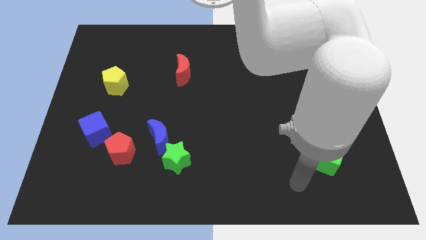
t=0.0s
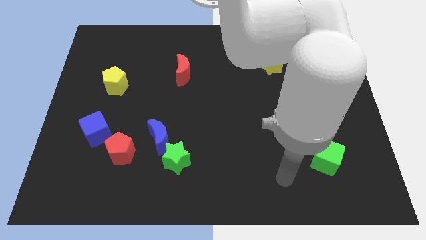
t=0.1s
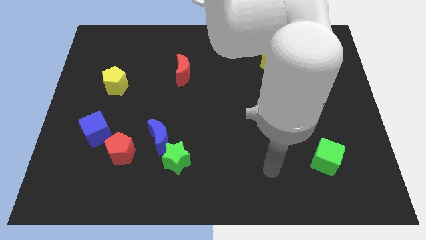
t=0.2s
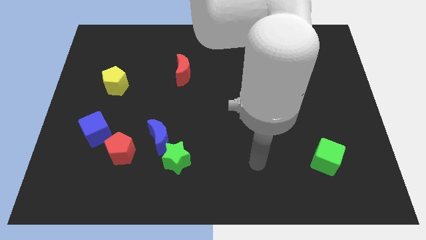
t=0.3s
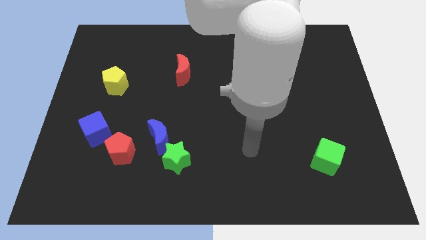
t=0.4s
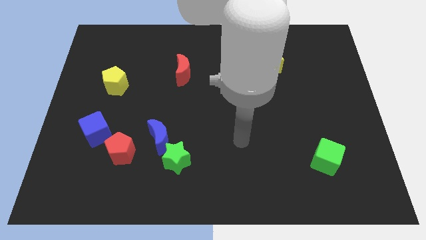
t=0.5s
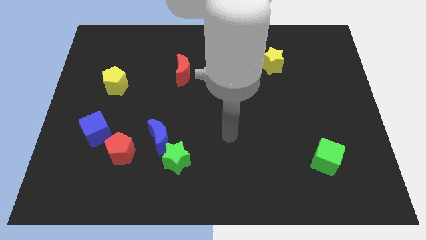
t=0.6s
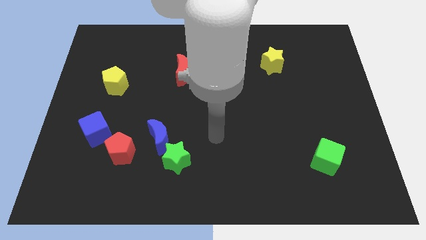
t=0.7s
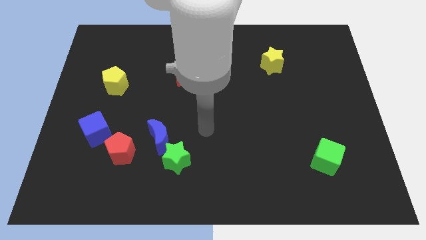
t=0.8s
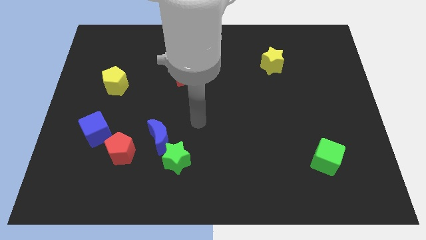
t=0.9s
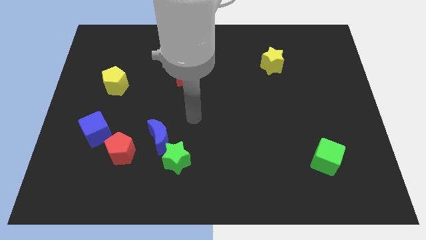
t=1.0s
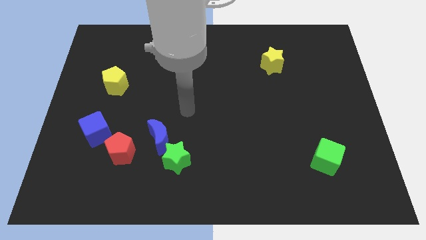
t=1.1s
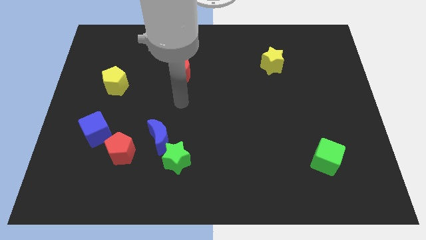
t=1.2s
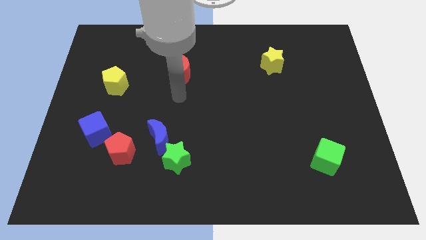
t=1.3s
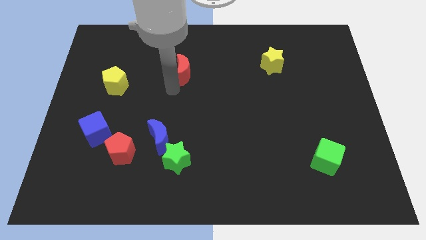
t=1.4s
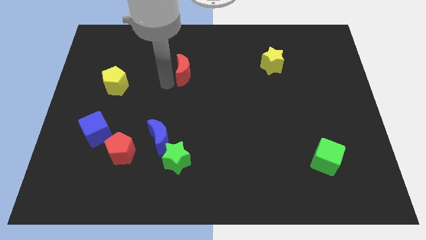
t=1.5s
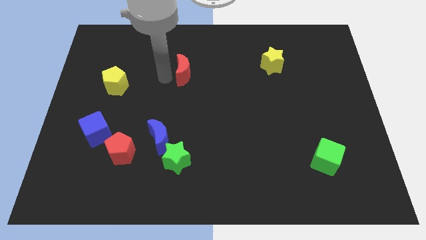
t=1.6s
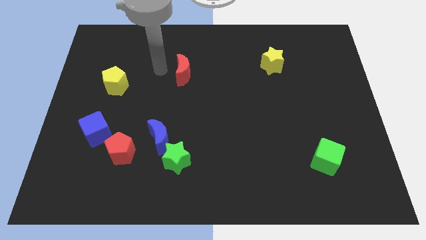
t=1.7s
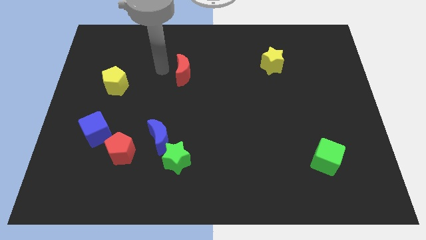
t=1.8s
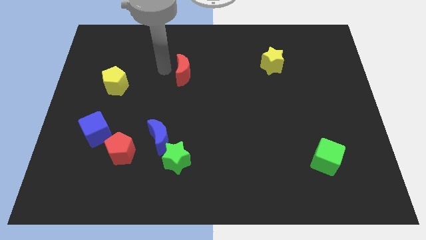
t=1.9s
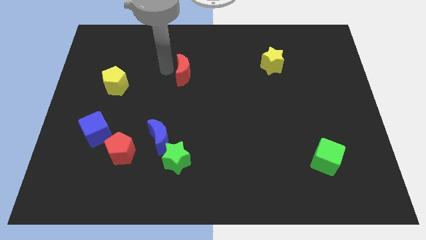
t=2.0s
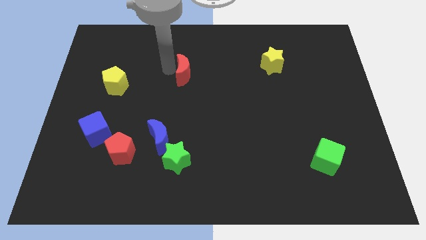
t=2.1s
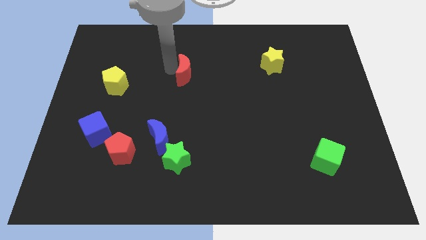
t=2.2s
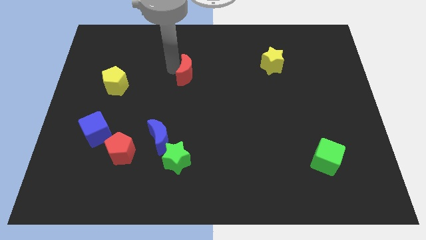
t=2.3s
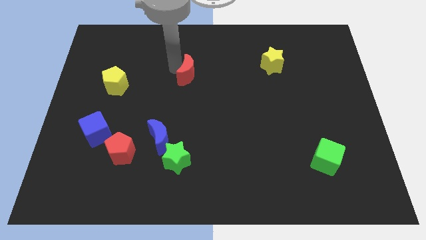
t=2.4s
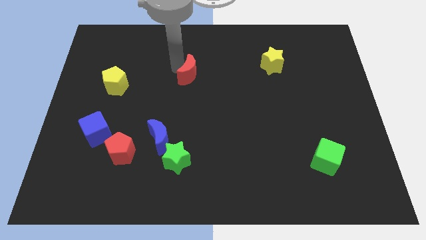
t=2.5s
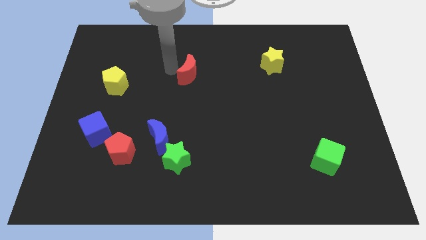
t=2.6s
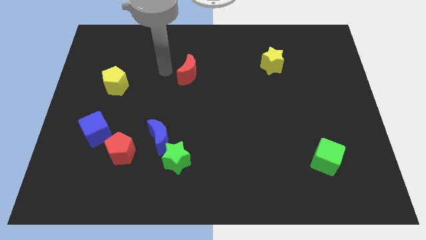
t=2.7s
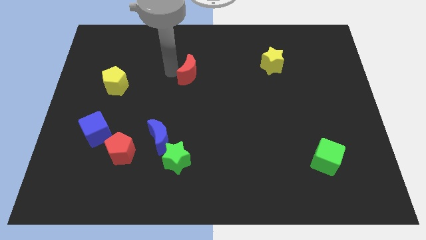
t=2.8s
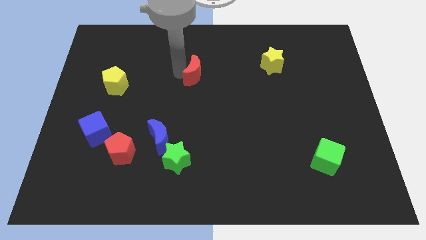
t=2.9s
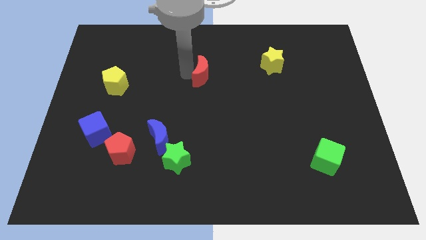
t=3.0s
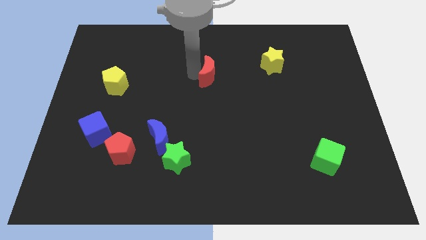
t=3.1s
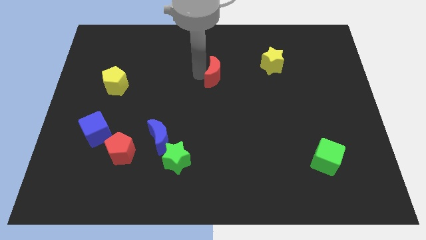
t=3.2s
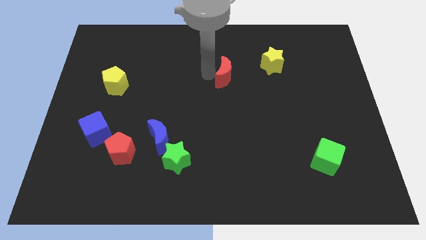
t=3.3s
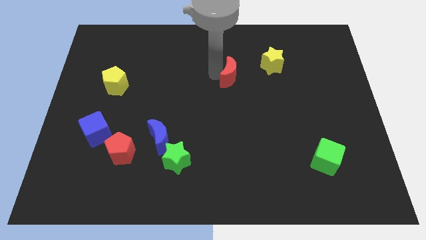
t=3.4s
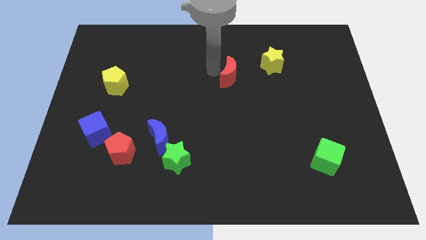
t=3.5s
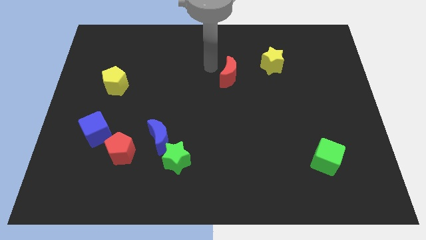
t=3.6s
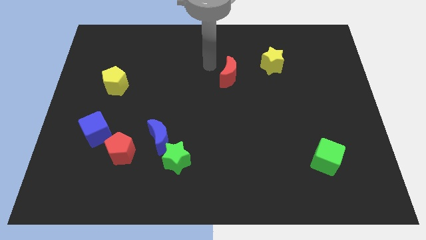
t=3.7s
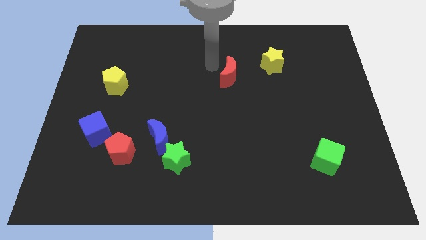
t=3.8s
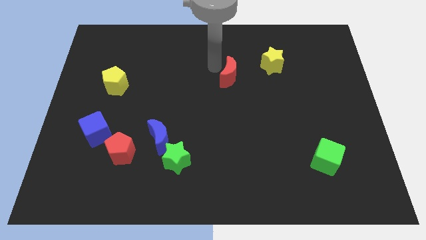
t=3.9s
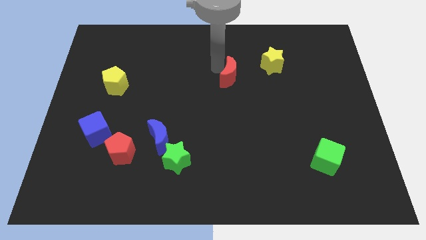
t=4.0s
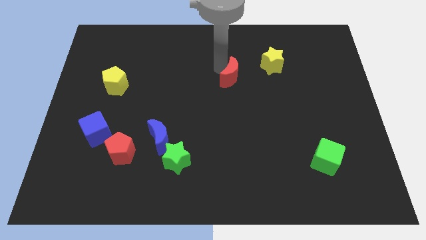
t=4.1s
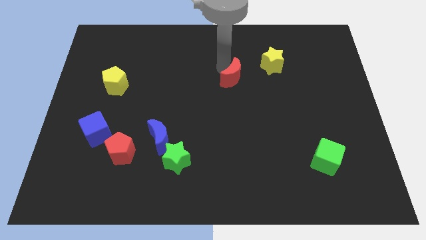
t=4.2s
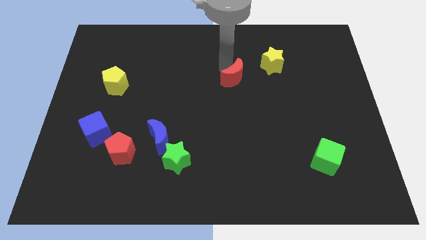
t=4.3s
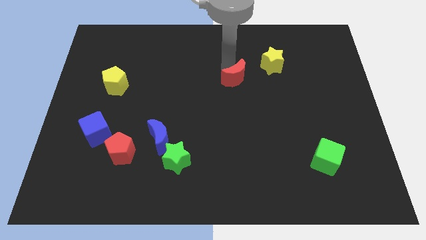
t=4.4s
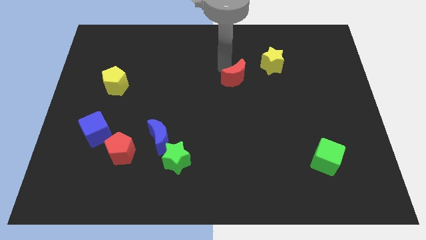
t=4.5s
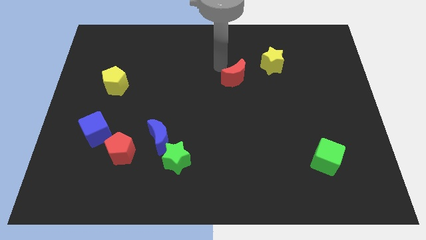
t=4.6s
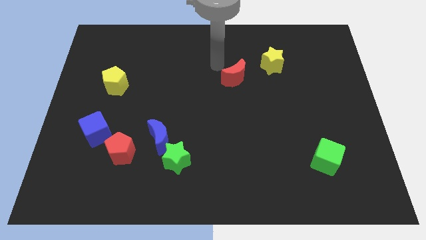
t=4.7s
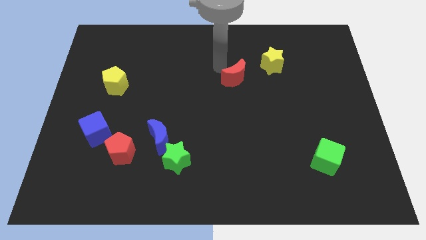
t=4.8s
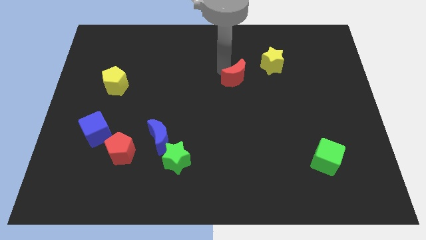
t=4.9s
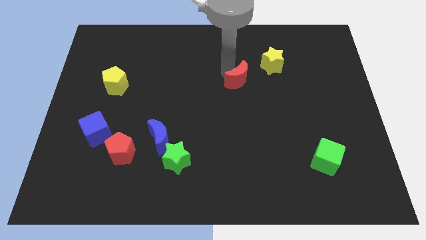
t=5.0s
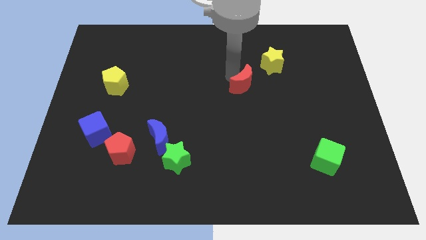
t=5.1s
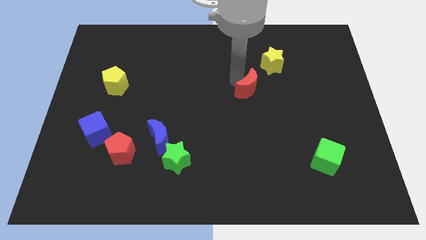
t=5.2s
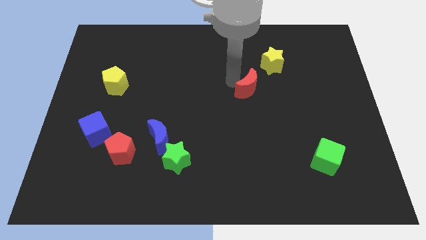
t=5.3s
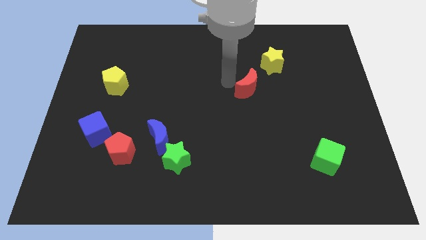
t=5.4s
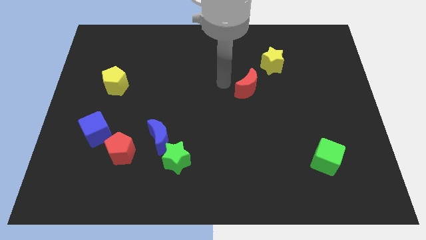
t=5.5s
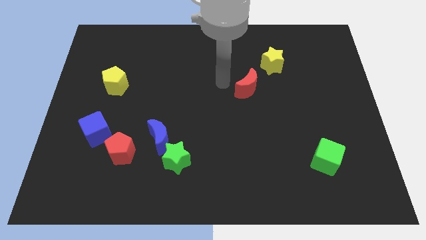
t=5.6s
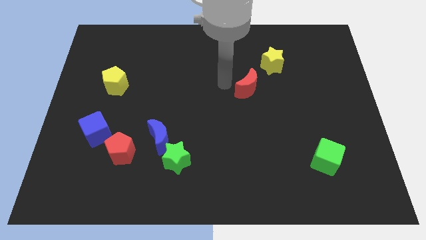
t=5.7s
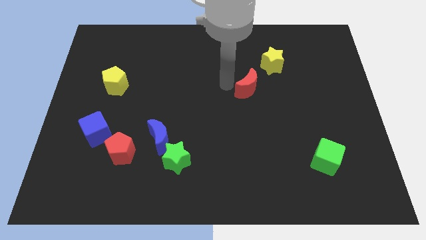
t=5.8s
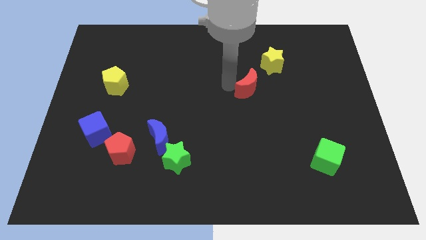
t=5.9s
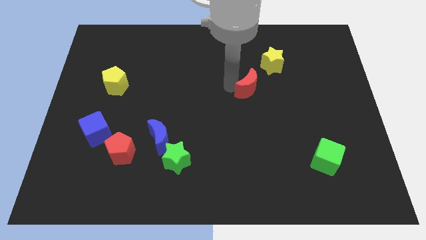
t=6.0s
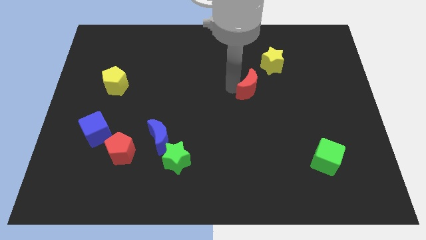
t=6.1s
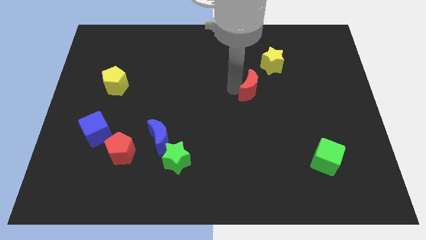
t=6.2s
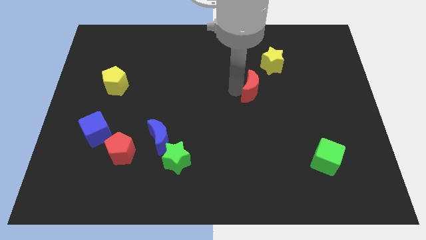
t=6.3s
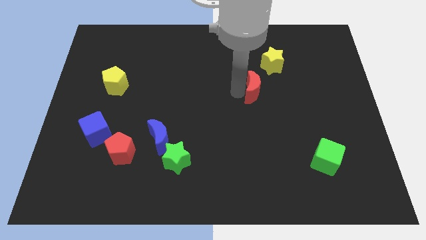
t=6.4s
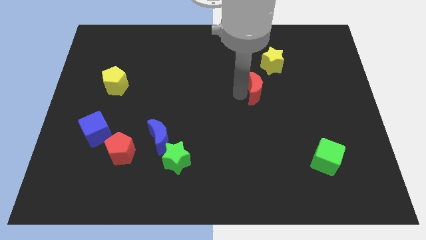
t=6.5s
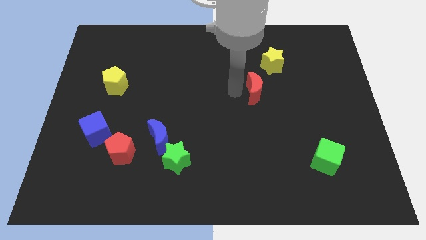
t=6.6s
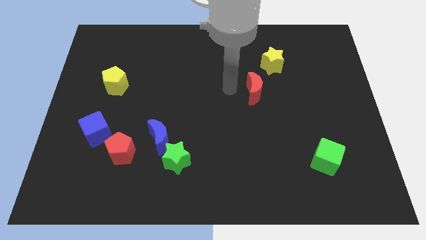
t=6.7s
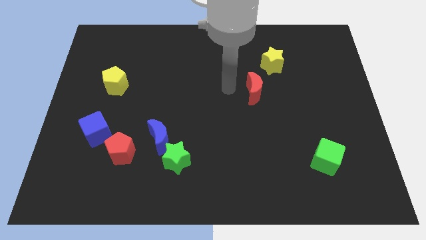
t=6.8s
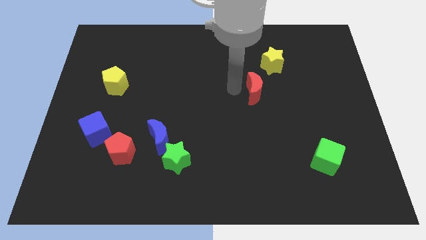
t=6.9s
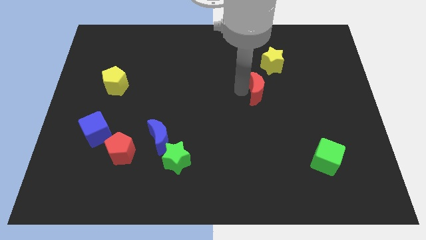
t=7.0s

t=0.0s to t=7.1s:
push the red moon to the bottom side of the yellow star

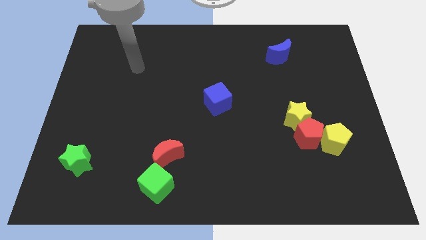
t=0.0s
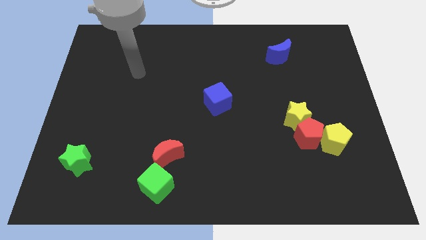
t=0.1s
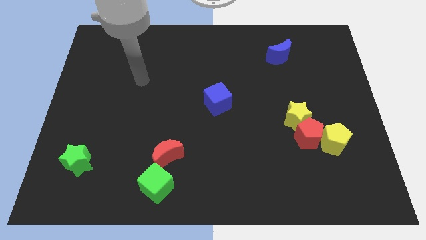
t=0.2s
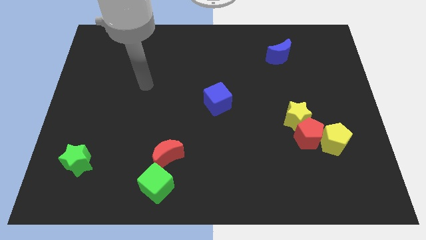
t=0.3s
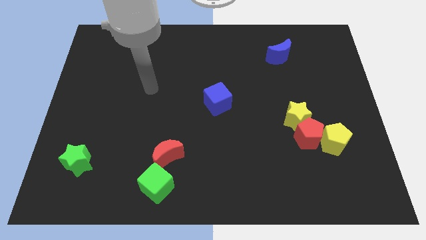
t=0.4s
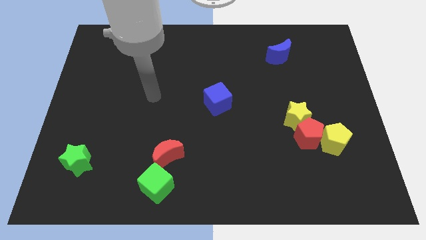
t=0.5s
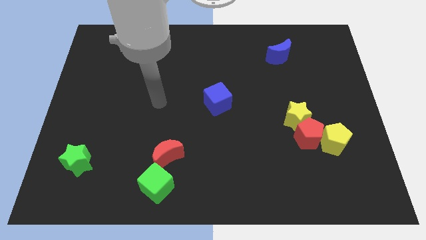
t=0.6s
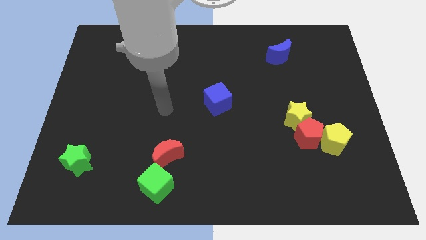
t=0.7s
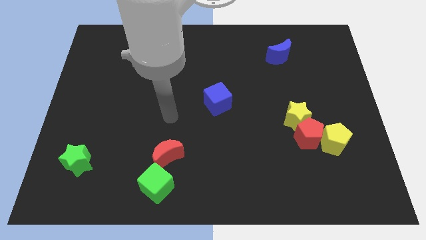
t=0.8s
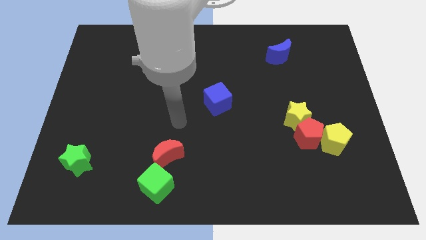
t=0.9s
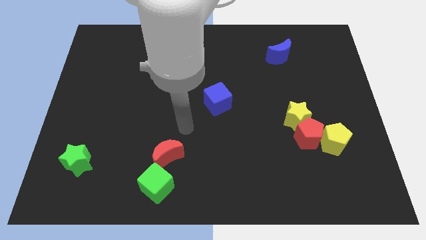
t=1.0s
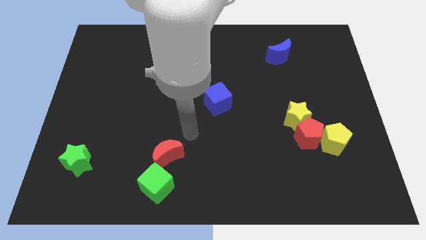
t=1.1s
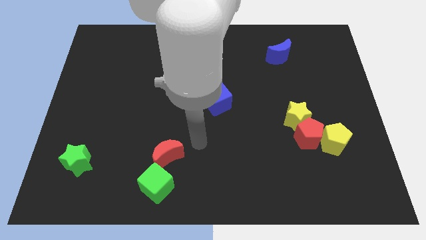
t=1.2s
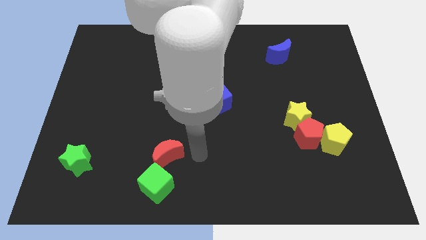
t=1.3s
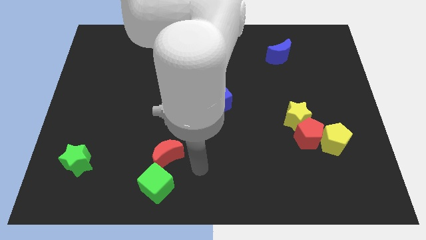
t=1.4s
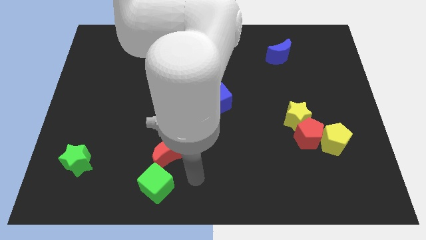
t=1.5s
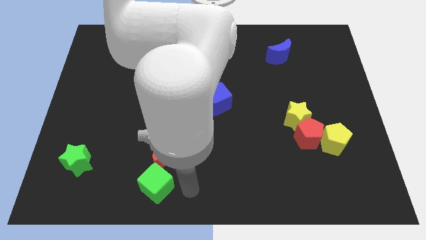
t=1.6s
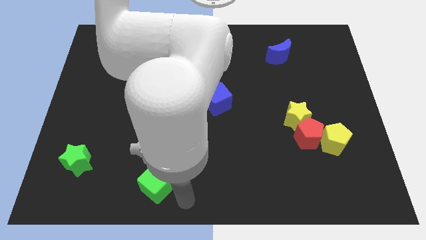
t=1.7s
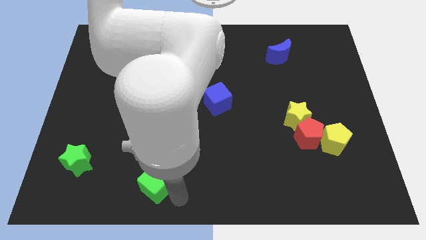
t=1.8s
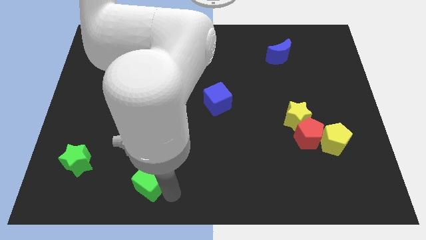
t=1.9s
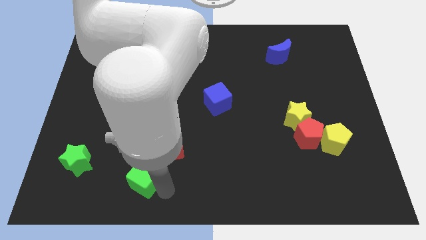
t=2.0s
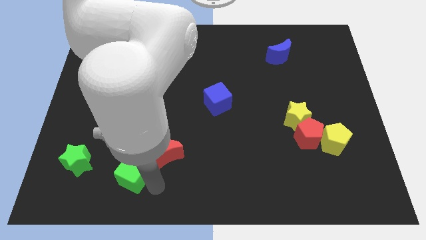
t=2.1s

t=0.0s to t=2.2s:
put the green cube just left of the red moon
